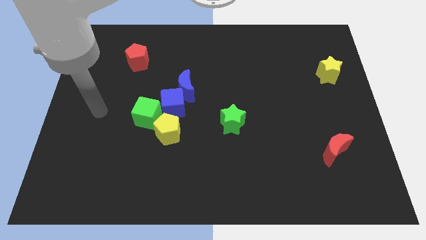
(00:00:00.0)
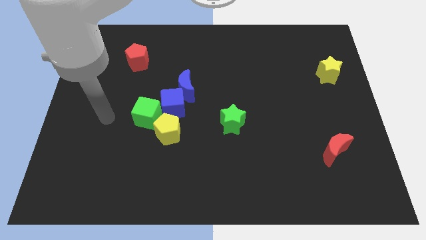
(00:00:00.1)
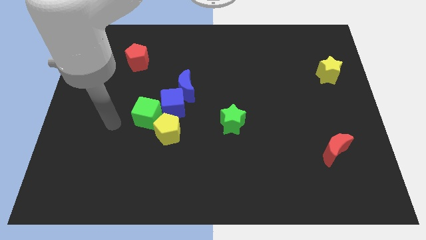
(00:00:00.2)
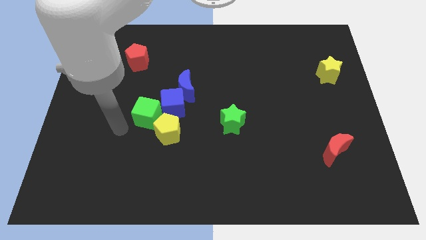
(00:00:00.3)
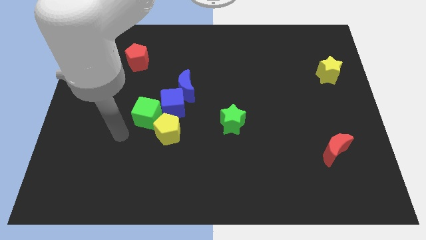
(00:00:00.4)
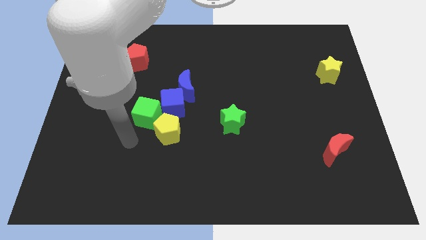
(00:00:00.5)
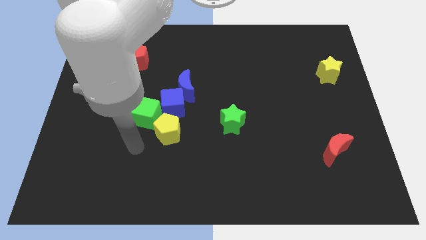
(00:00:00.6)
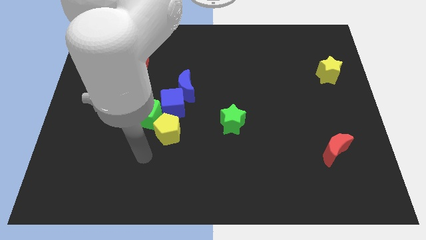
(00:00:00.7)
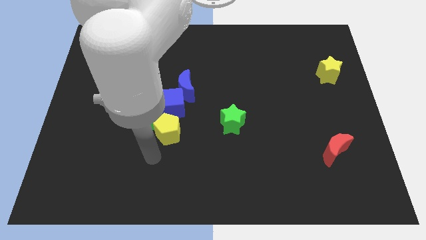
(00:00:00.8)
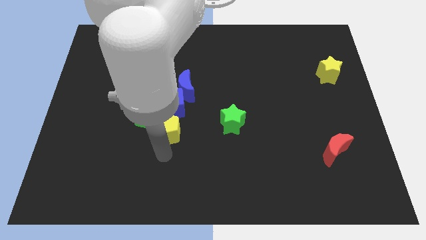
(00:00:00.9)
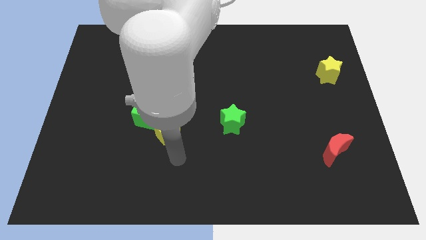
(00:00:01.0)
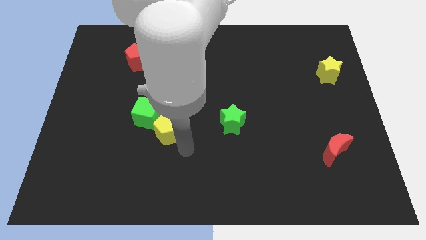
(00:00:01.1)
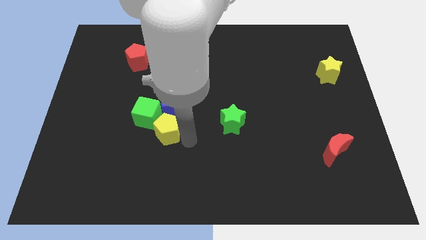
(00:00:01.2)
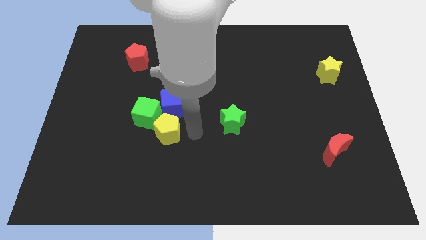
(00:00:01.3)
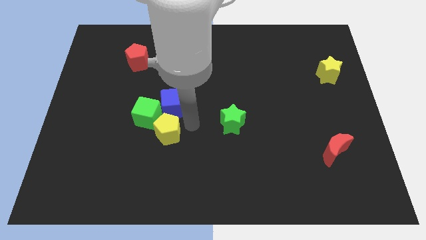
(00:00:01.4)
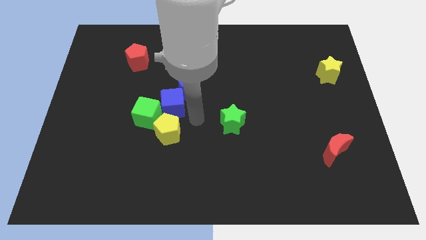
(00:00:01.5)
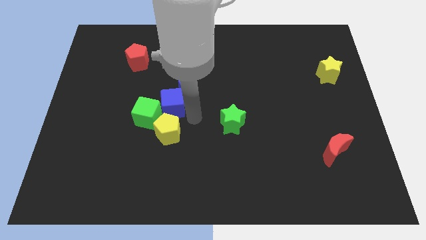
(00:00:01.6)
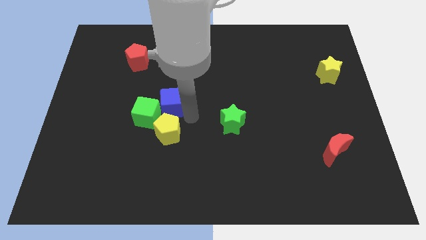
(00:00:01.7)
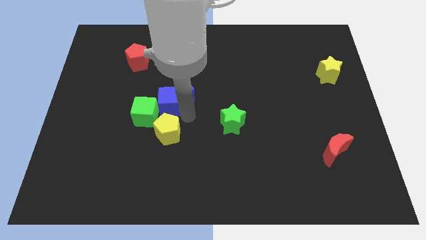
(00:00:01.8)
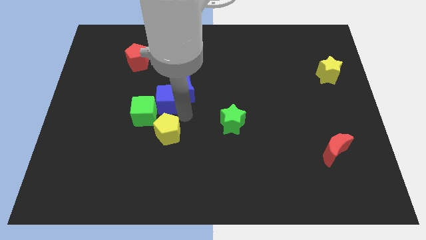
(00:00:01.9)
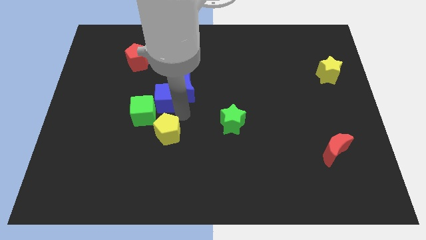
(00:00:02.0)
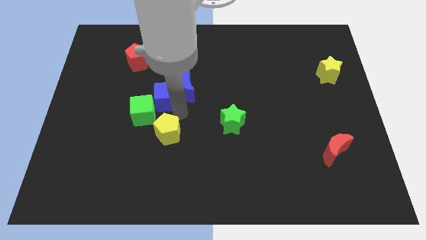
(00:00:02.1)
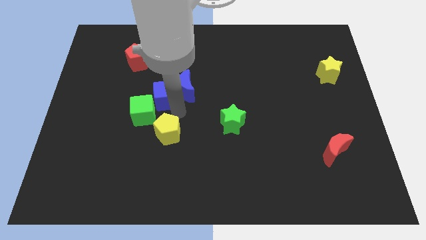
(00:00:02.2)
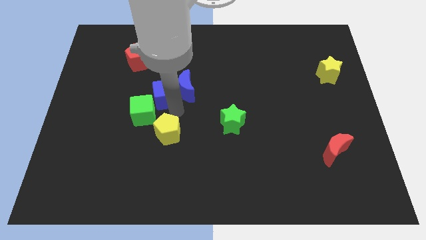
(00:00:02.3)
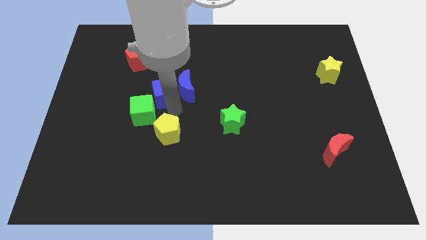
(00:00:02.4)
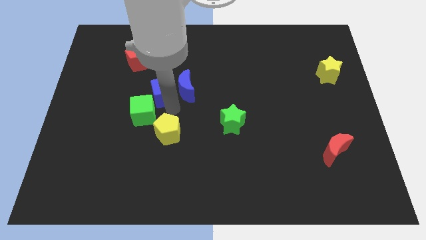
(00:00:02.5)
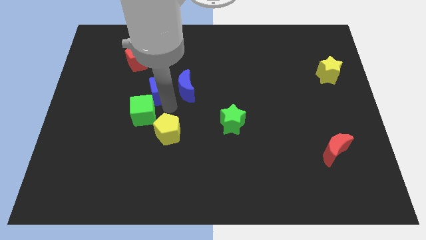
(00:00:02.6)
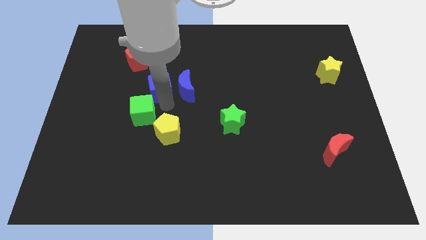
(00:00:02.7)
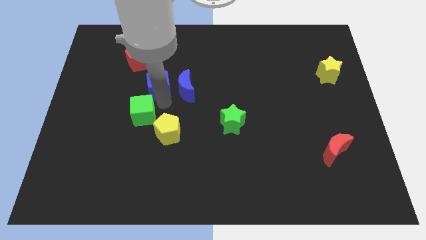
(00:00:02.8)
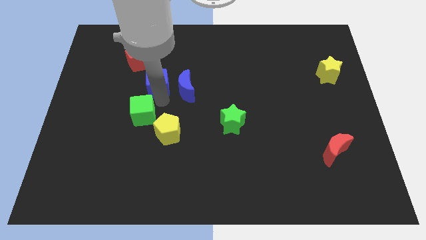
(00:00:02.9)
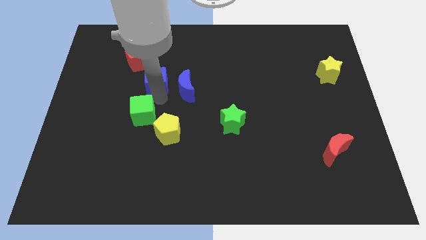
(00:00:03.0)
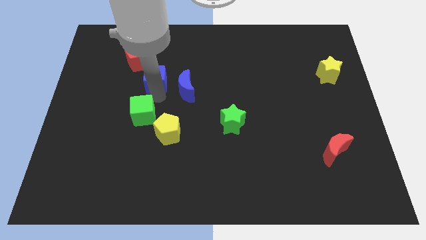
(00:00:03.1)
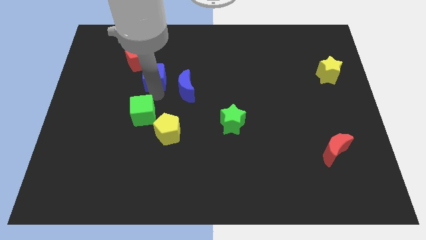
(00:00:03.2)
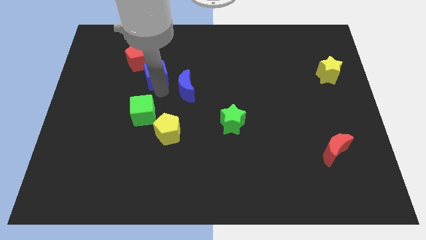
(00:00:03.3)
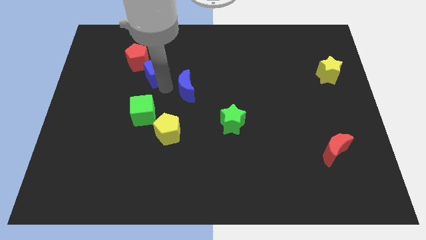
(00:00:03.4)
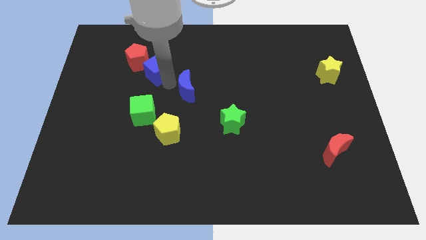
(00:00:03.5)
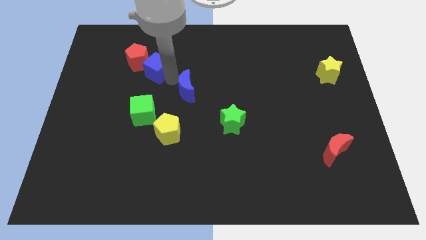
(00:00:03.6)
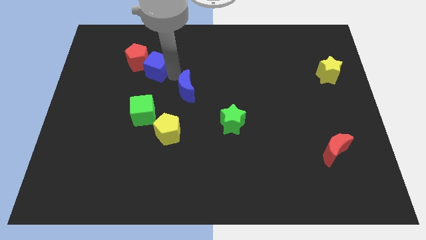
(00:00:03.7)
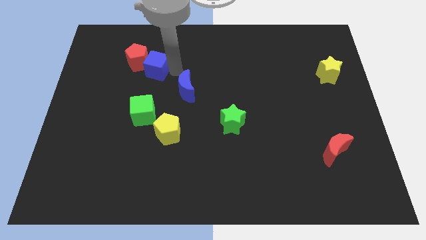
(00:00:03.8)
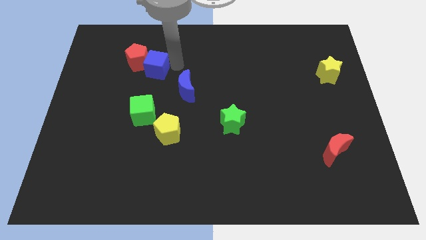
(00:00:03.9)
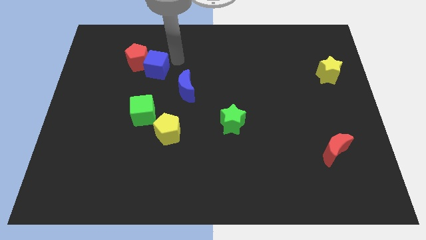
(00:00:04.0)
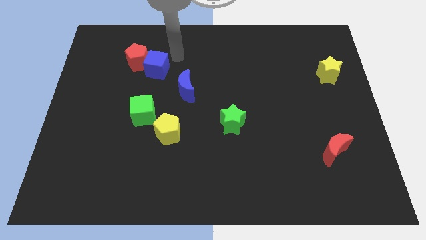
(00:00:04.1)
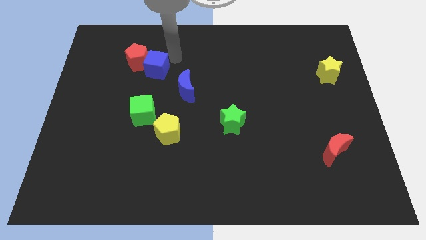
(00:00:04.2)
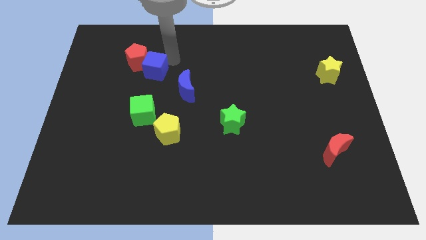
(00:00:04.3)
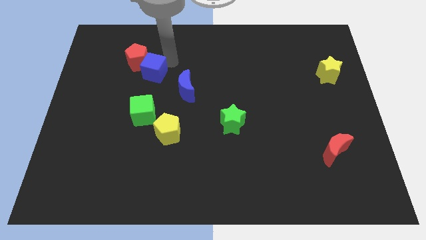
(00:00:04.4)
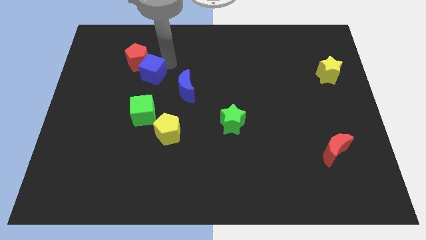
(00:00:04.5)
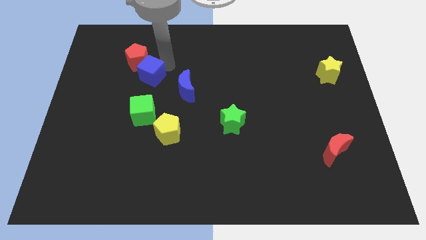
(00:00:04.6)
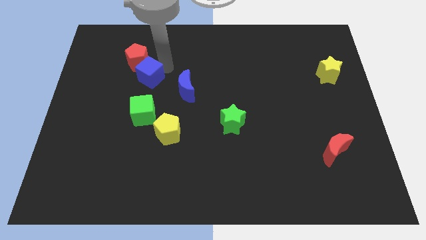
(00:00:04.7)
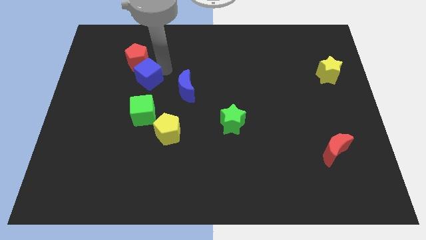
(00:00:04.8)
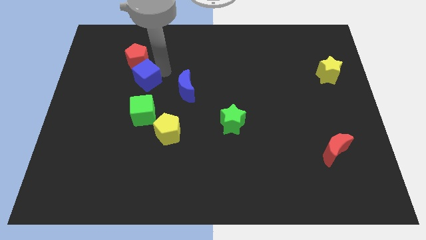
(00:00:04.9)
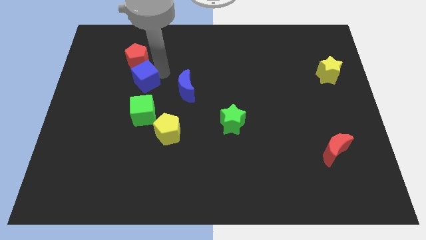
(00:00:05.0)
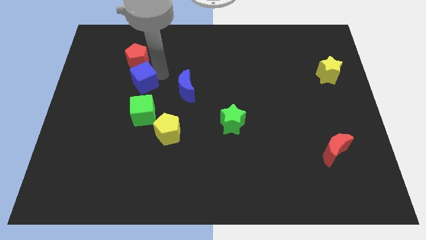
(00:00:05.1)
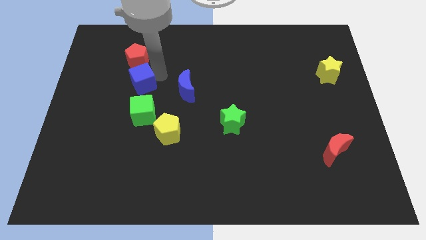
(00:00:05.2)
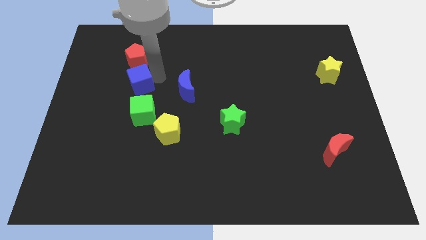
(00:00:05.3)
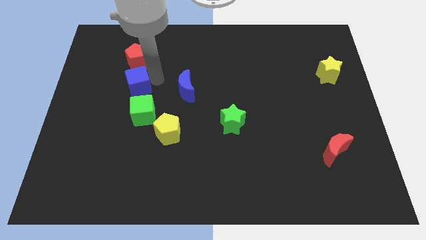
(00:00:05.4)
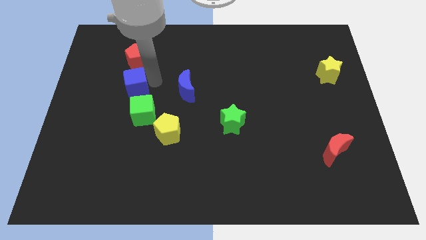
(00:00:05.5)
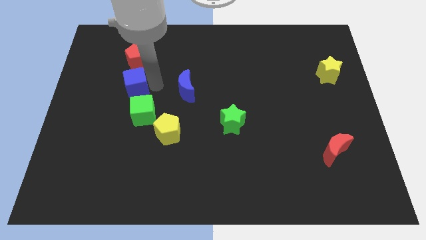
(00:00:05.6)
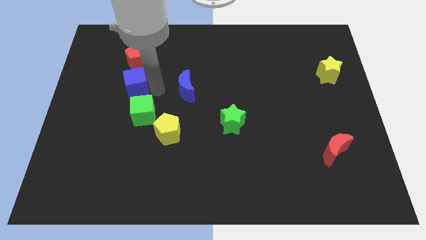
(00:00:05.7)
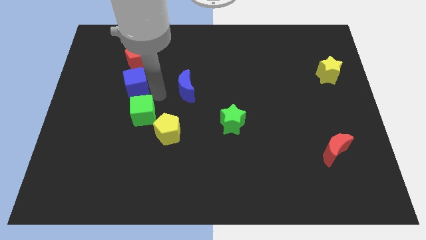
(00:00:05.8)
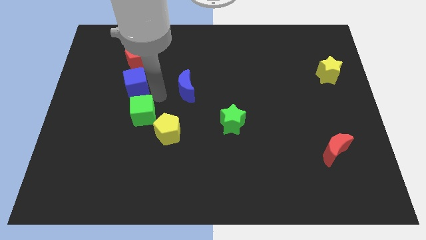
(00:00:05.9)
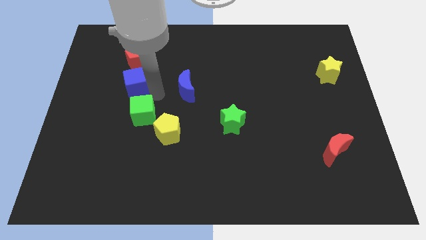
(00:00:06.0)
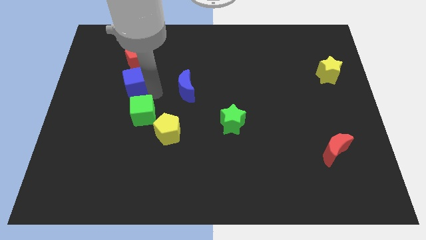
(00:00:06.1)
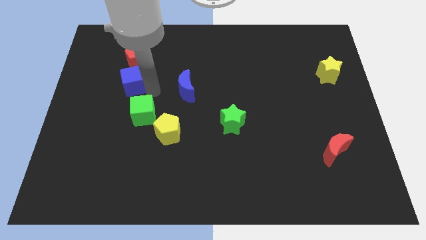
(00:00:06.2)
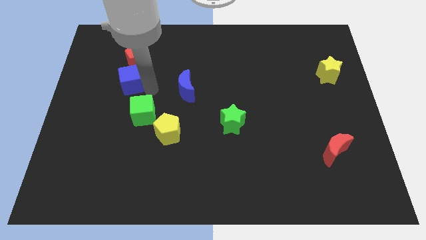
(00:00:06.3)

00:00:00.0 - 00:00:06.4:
push the blue cube to the bottom left side of the red pentagon

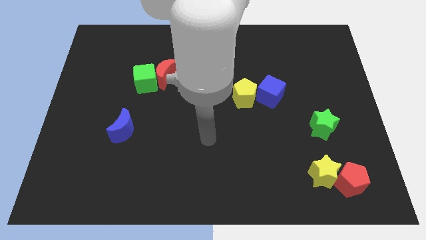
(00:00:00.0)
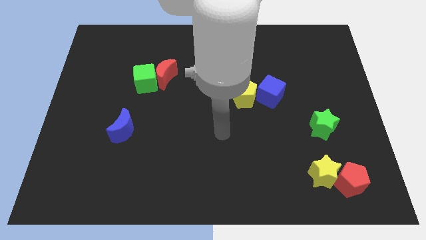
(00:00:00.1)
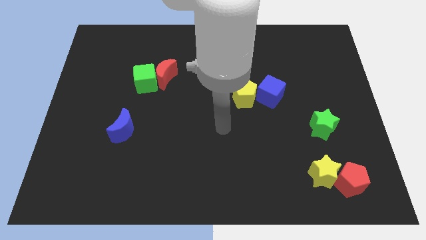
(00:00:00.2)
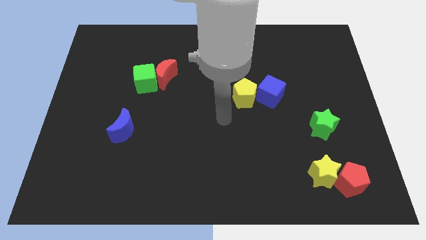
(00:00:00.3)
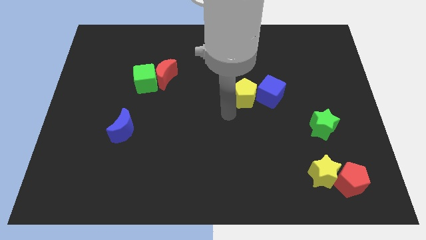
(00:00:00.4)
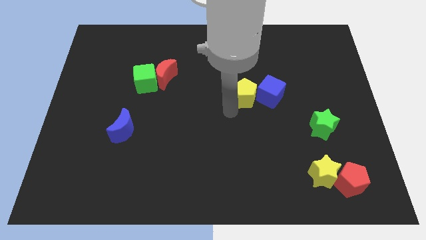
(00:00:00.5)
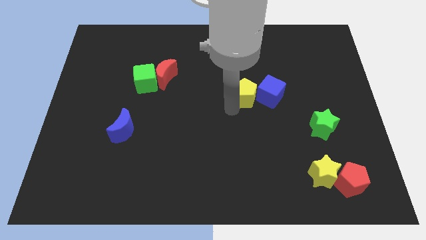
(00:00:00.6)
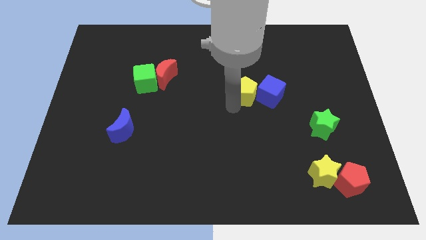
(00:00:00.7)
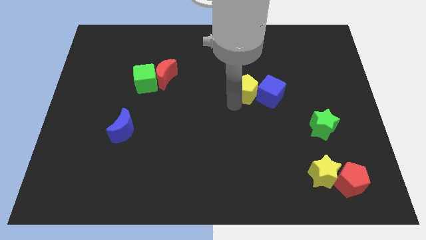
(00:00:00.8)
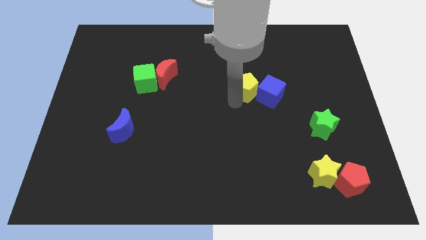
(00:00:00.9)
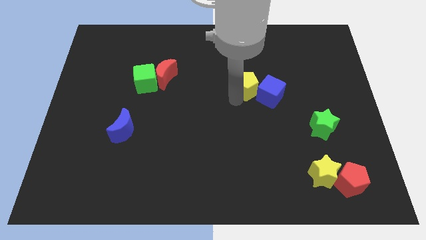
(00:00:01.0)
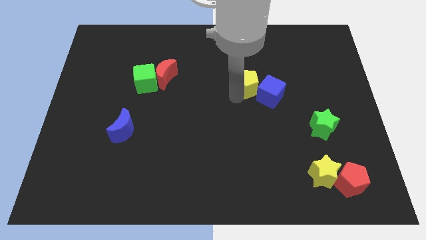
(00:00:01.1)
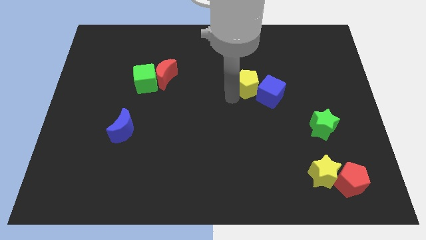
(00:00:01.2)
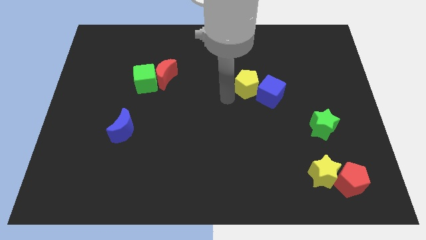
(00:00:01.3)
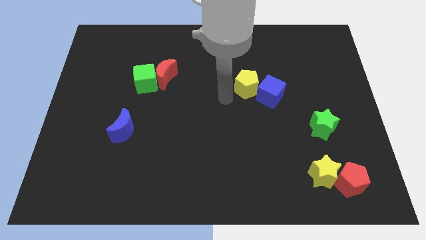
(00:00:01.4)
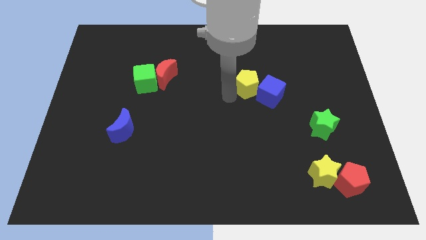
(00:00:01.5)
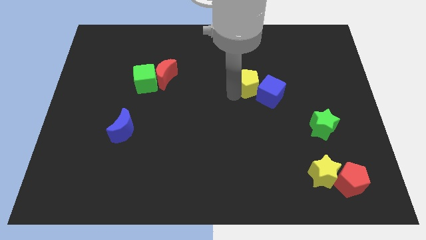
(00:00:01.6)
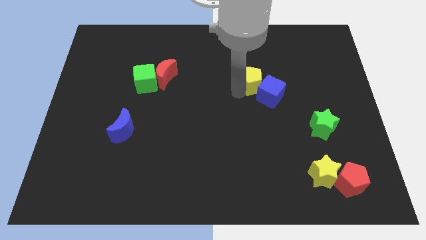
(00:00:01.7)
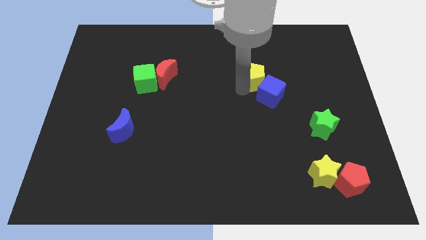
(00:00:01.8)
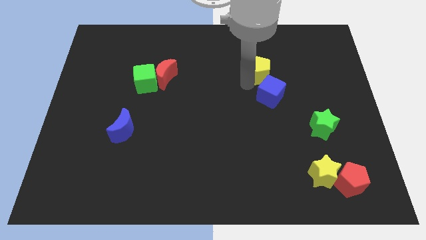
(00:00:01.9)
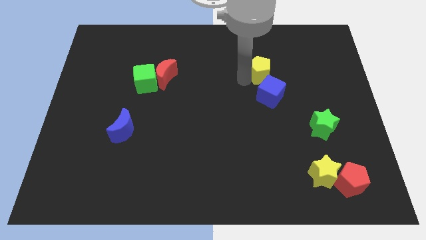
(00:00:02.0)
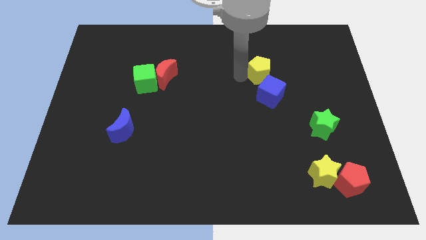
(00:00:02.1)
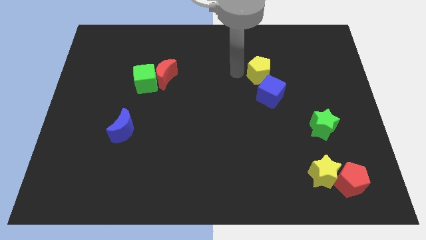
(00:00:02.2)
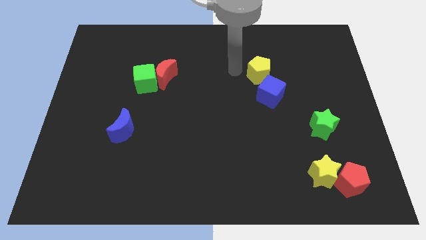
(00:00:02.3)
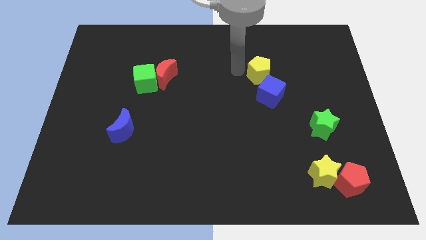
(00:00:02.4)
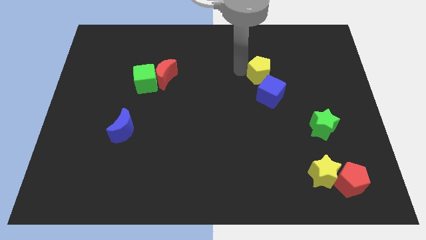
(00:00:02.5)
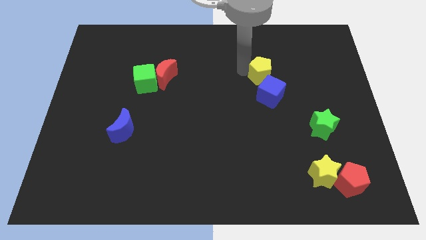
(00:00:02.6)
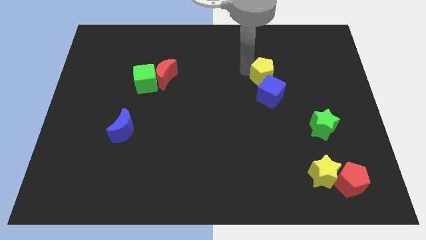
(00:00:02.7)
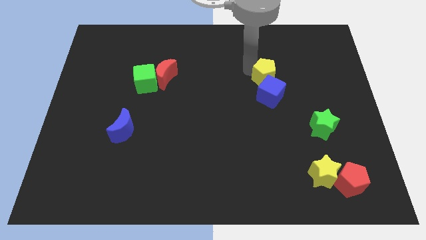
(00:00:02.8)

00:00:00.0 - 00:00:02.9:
move the yellow pentagon to the top right of the blue cube
